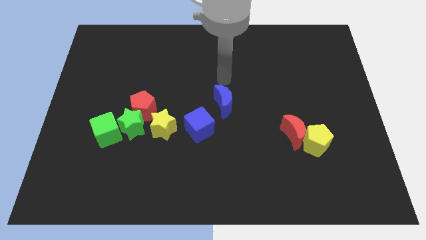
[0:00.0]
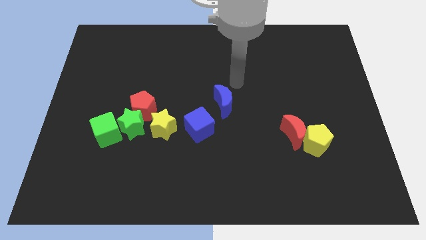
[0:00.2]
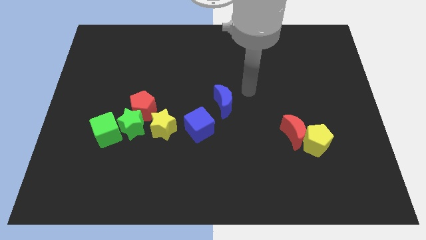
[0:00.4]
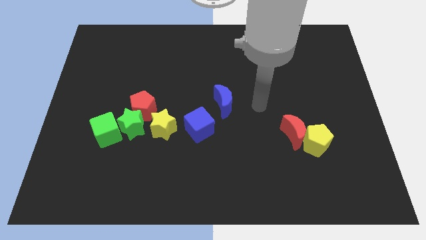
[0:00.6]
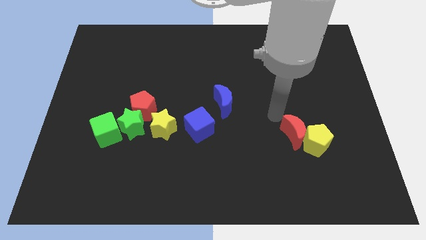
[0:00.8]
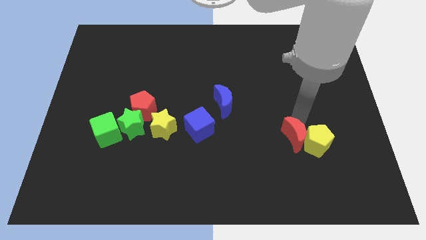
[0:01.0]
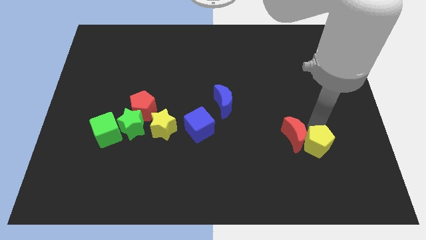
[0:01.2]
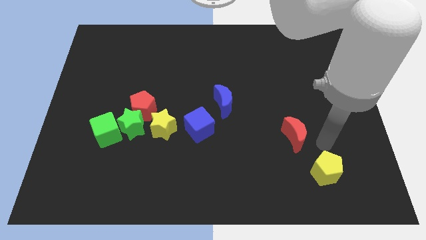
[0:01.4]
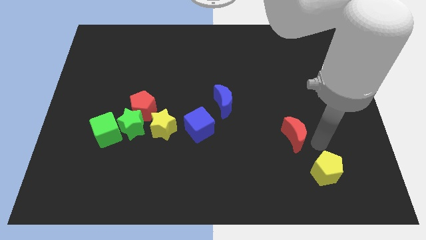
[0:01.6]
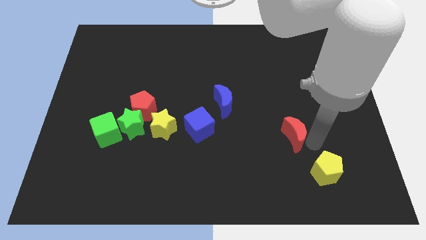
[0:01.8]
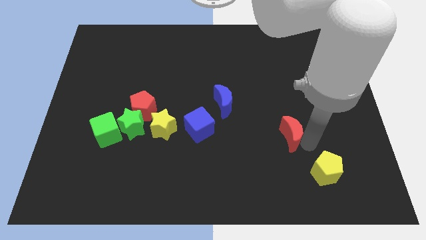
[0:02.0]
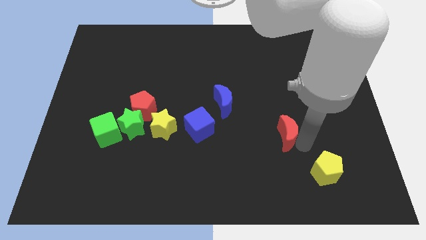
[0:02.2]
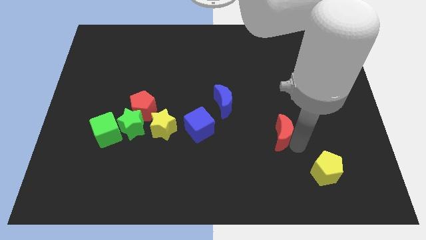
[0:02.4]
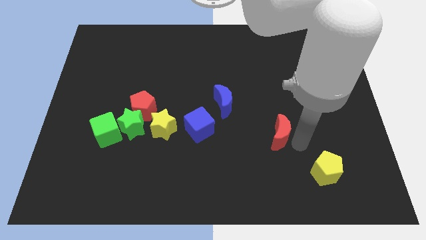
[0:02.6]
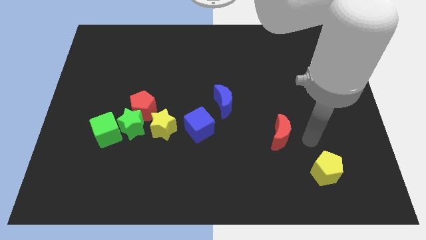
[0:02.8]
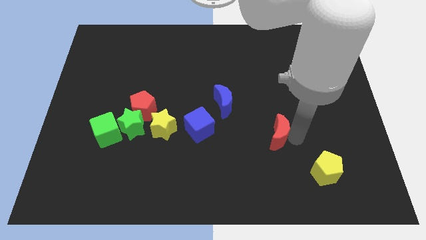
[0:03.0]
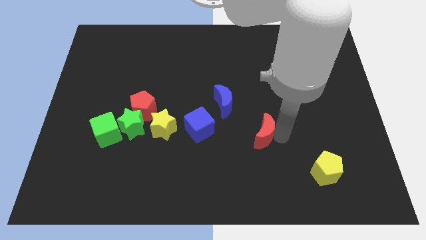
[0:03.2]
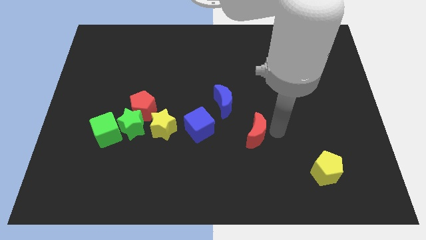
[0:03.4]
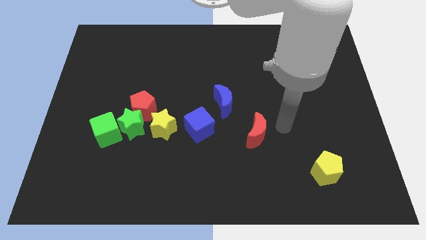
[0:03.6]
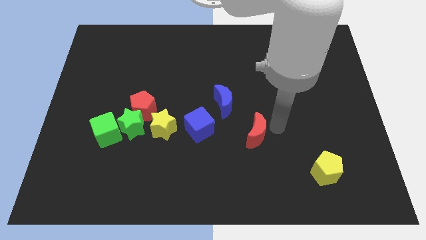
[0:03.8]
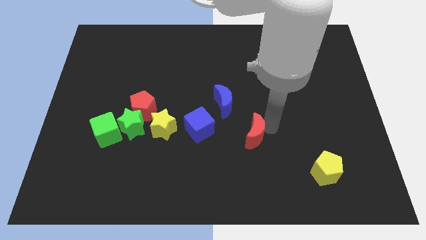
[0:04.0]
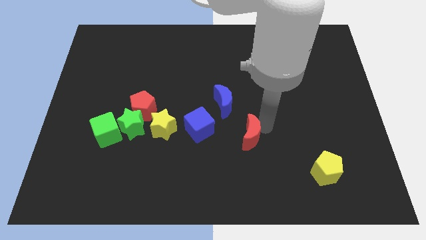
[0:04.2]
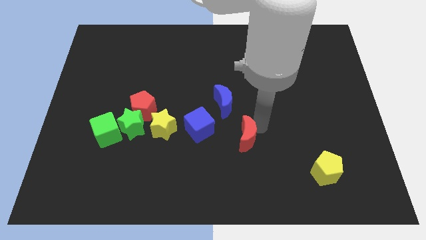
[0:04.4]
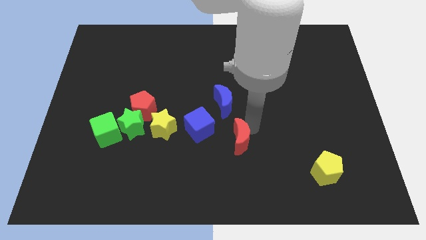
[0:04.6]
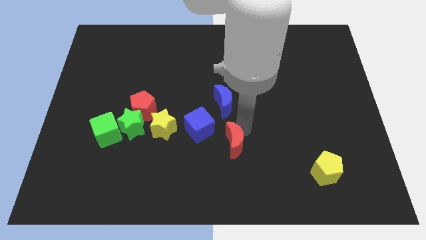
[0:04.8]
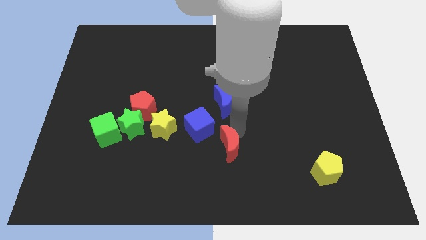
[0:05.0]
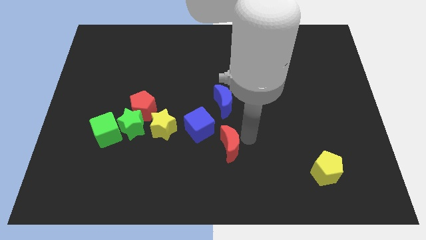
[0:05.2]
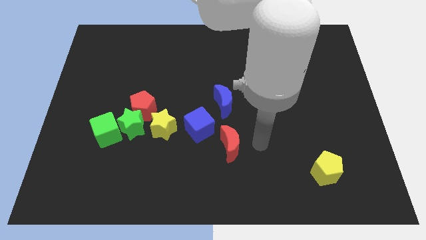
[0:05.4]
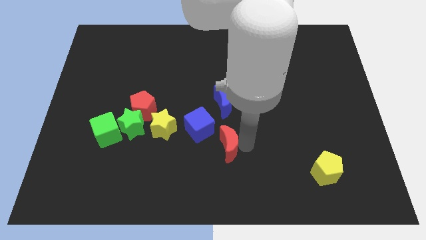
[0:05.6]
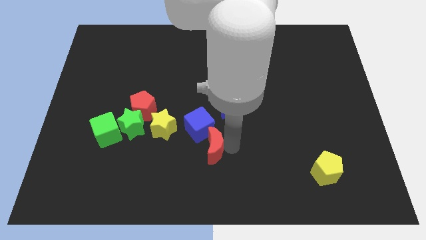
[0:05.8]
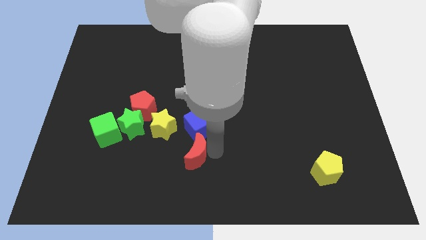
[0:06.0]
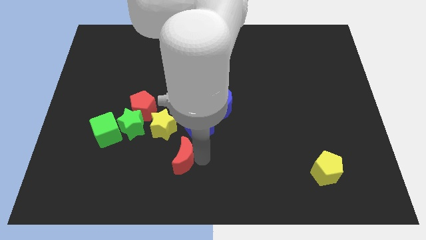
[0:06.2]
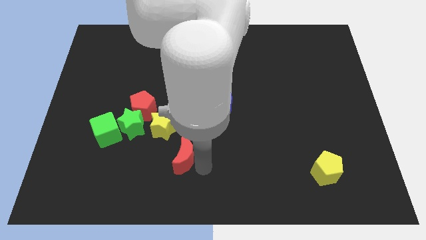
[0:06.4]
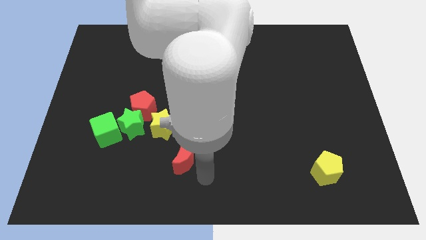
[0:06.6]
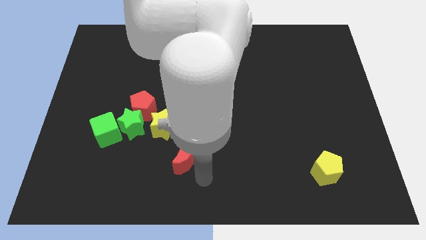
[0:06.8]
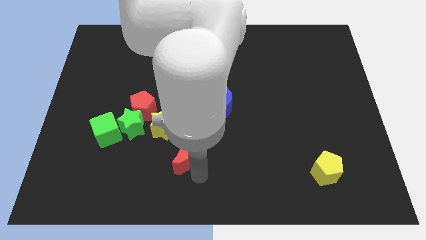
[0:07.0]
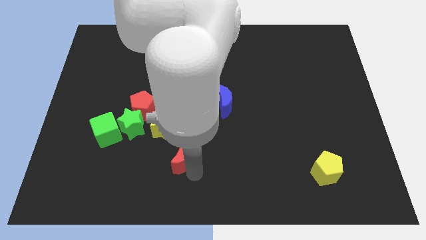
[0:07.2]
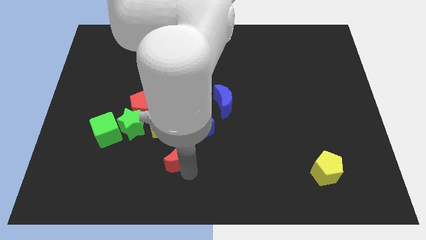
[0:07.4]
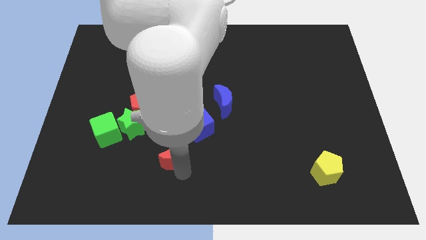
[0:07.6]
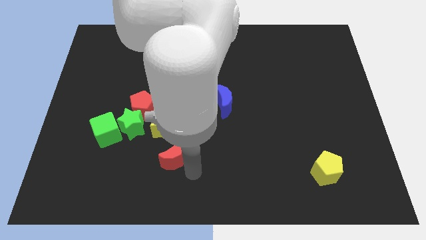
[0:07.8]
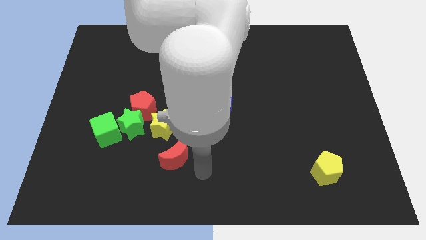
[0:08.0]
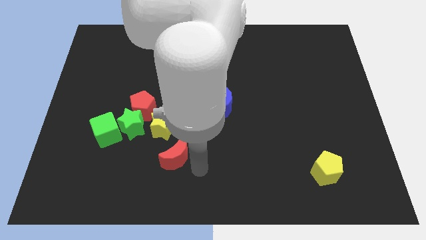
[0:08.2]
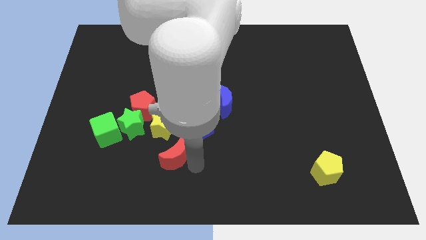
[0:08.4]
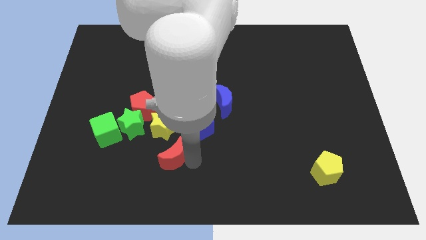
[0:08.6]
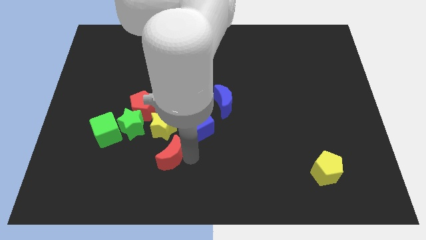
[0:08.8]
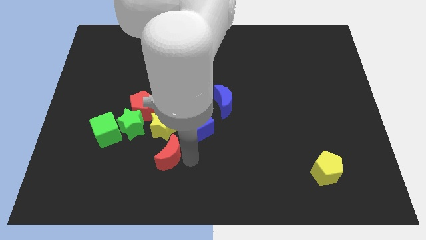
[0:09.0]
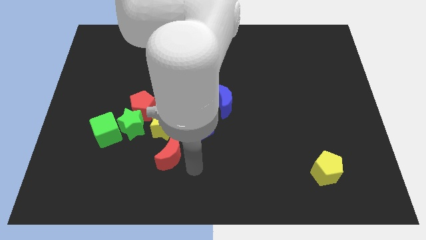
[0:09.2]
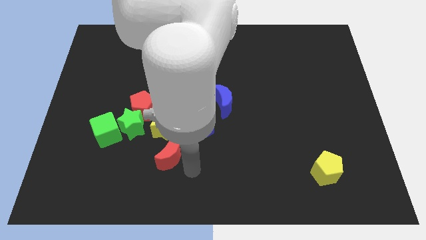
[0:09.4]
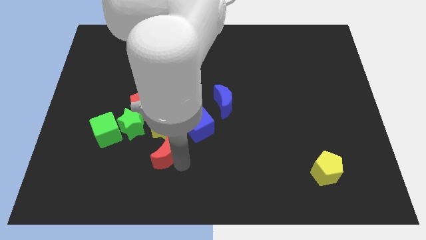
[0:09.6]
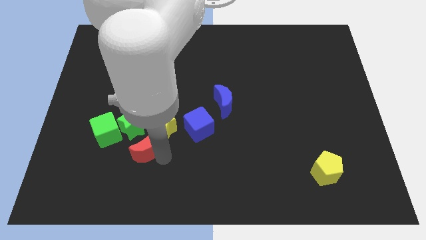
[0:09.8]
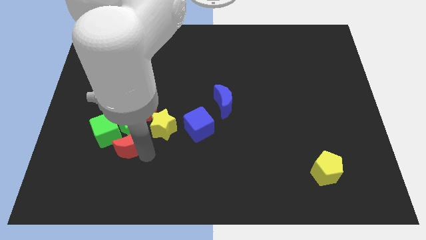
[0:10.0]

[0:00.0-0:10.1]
move the red moon next to the green star
